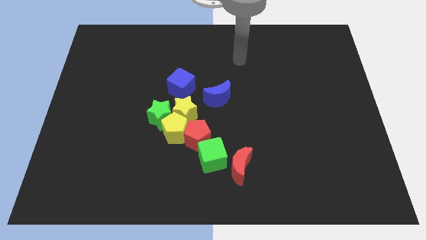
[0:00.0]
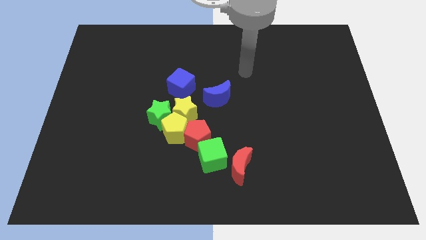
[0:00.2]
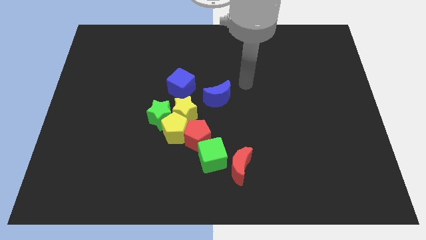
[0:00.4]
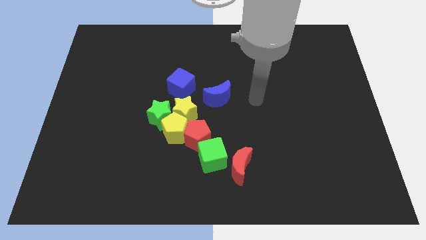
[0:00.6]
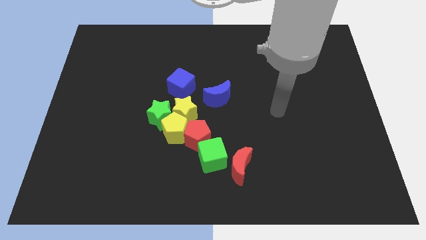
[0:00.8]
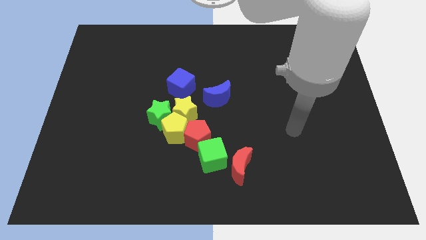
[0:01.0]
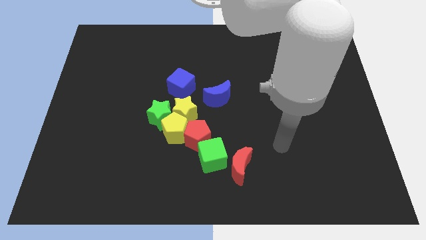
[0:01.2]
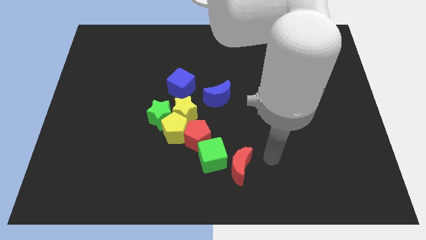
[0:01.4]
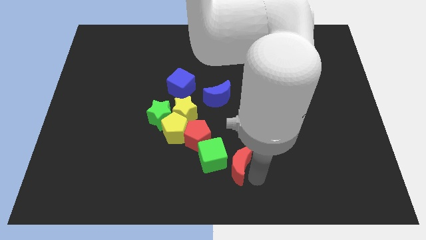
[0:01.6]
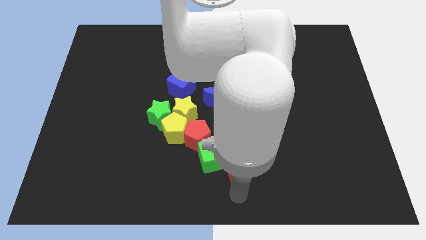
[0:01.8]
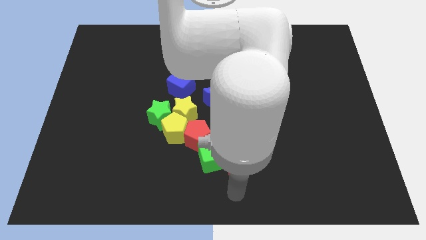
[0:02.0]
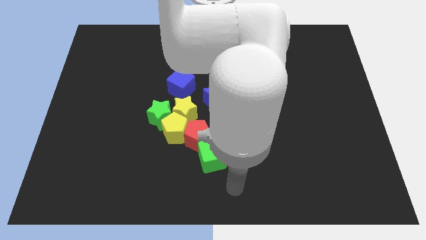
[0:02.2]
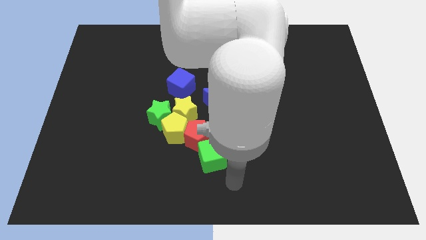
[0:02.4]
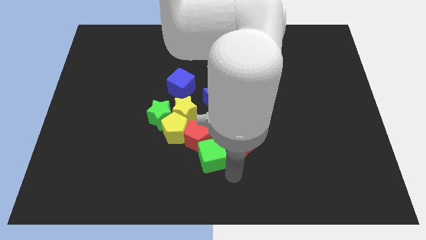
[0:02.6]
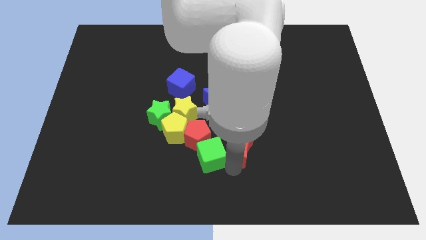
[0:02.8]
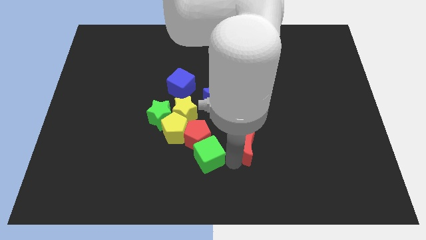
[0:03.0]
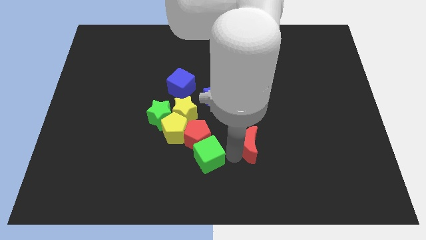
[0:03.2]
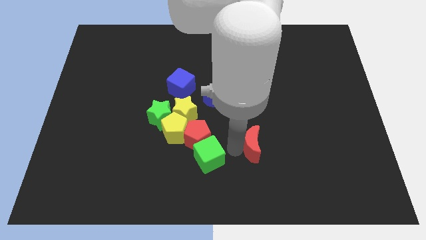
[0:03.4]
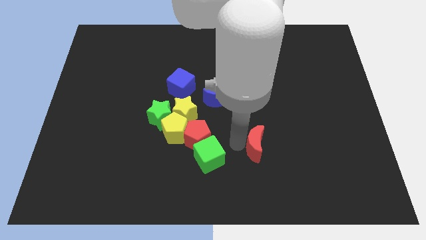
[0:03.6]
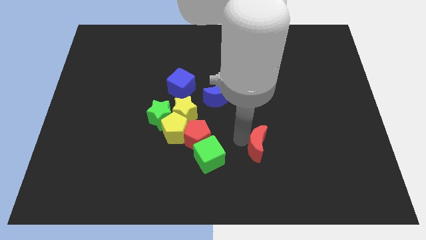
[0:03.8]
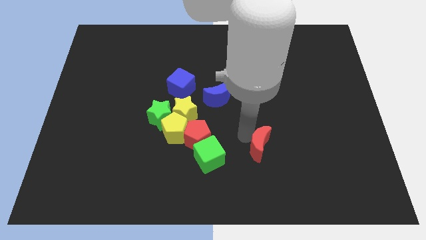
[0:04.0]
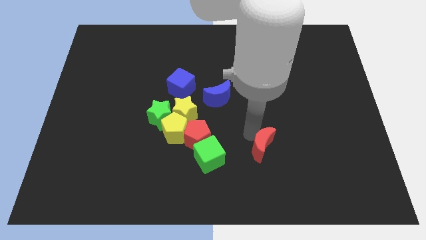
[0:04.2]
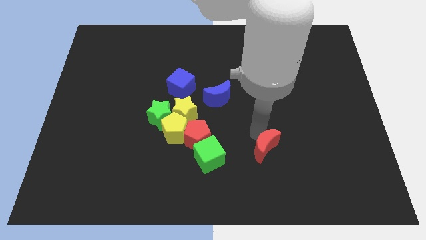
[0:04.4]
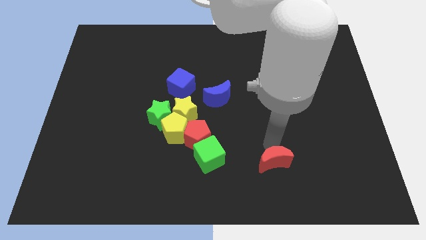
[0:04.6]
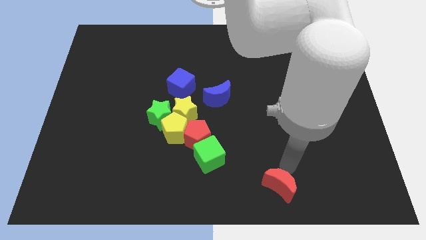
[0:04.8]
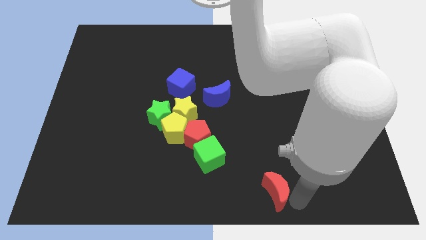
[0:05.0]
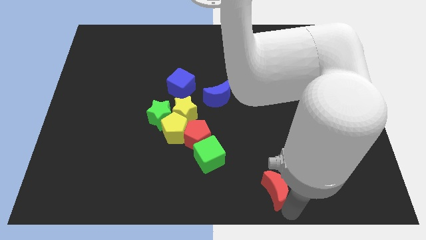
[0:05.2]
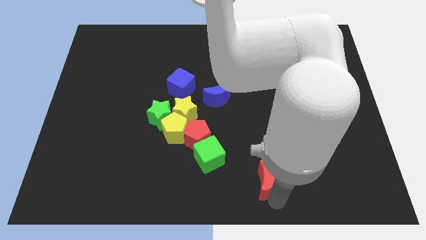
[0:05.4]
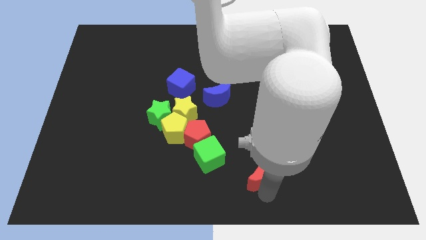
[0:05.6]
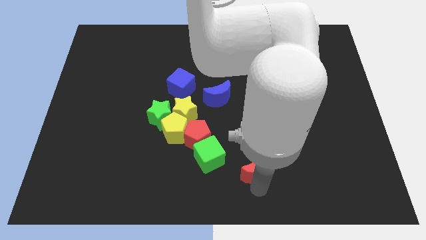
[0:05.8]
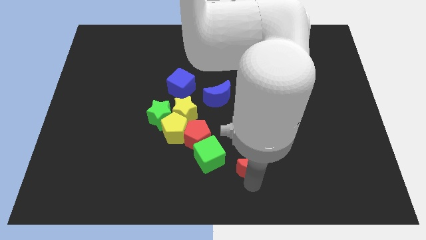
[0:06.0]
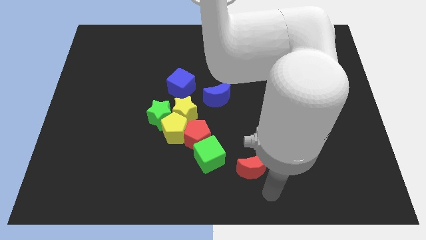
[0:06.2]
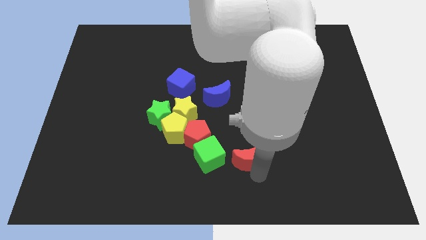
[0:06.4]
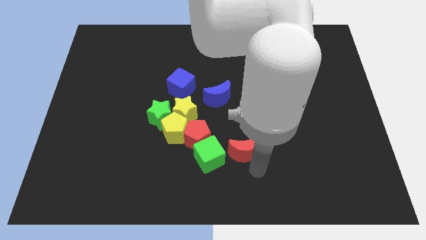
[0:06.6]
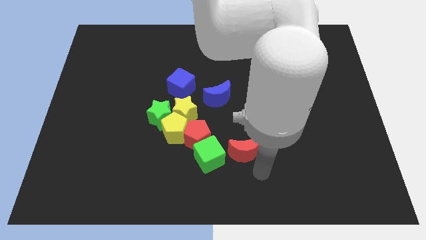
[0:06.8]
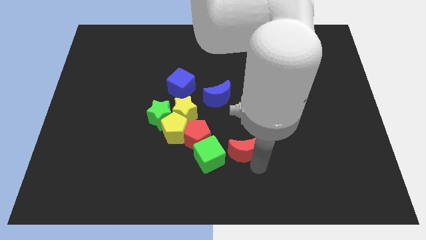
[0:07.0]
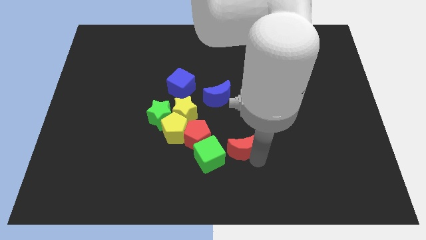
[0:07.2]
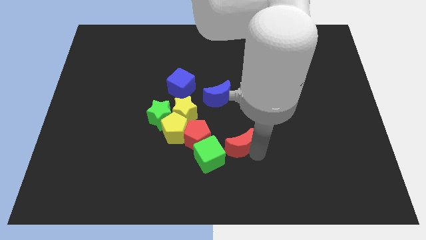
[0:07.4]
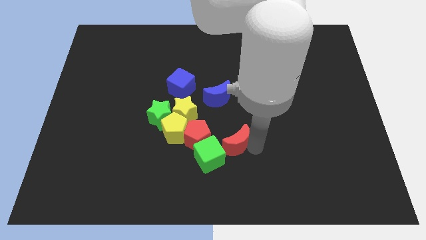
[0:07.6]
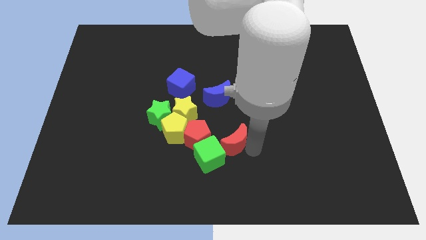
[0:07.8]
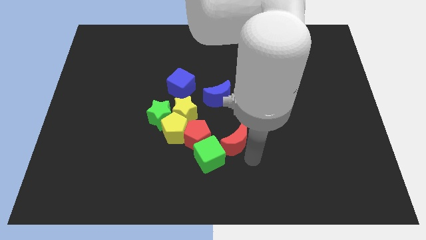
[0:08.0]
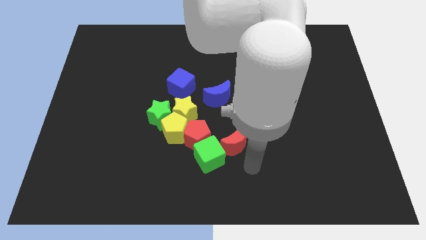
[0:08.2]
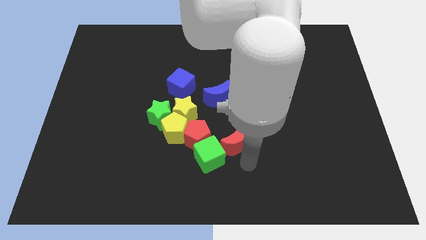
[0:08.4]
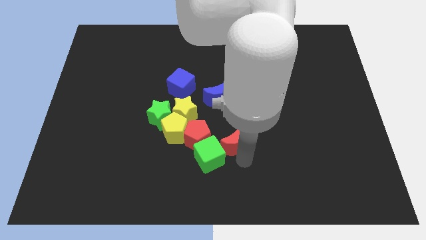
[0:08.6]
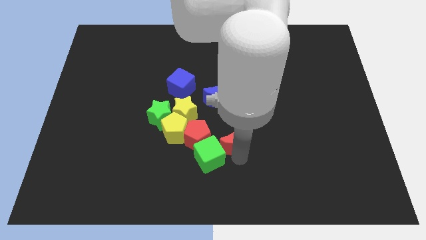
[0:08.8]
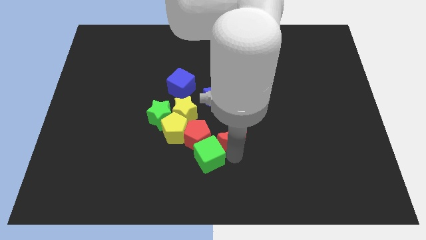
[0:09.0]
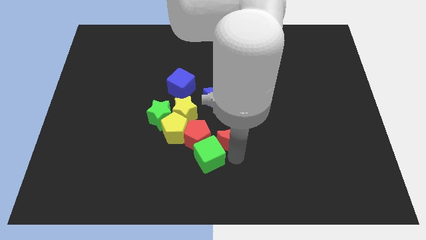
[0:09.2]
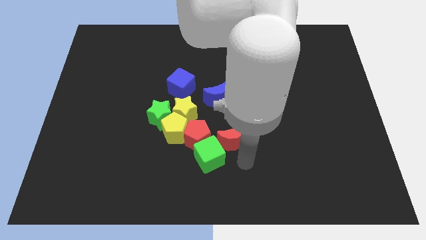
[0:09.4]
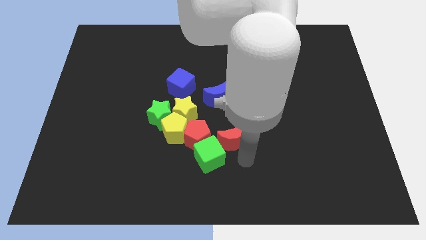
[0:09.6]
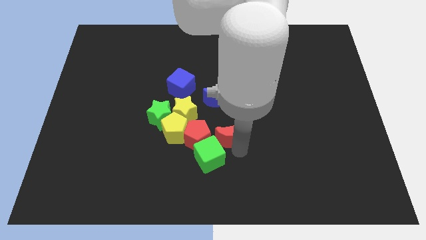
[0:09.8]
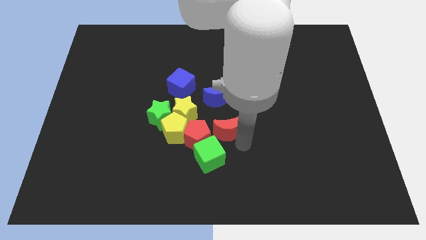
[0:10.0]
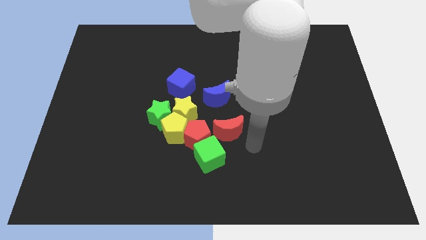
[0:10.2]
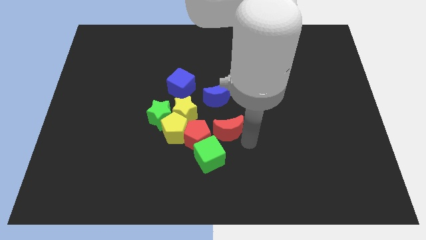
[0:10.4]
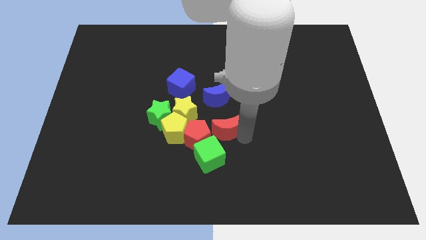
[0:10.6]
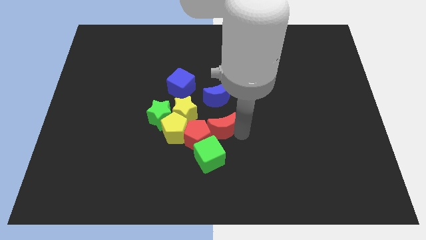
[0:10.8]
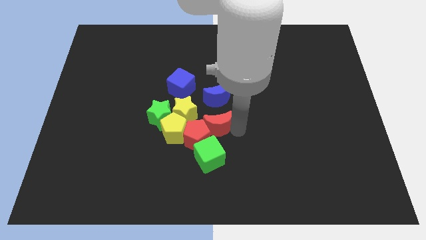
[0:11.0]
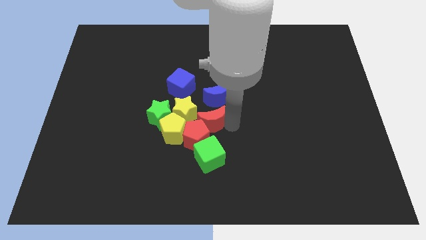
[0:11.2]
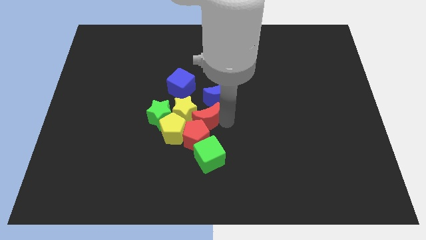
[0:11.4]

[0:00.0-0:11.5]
push the red moon next to the yellow star

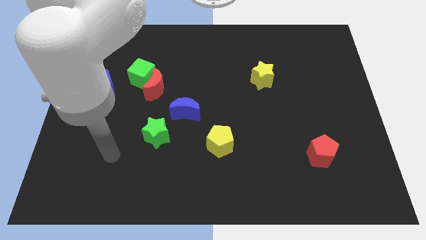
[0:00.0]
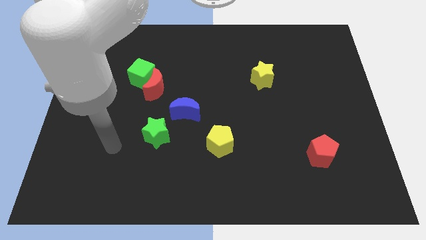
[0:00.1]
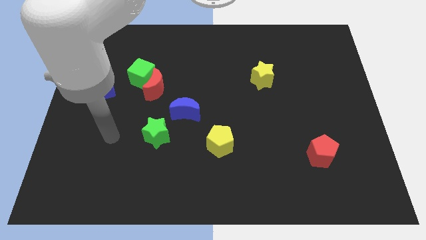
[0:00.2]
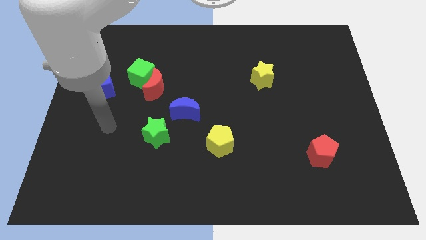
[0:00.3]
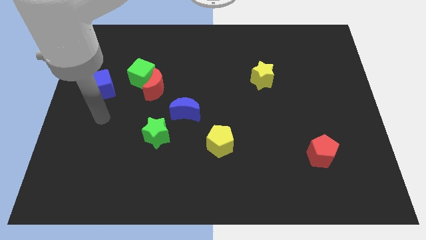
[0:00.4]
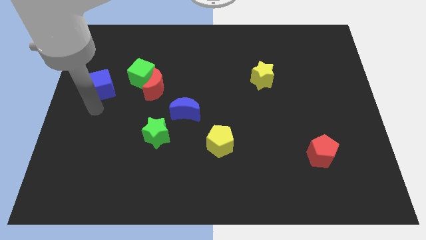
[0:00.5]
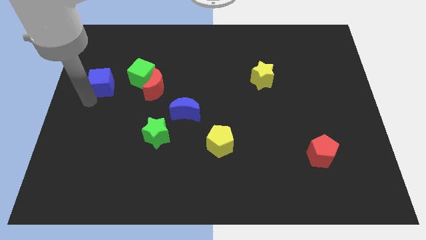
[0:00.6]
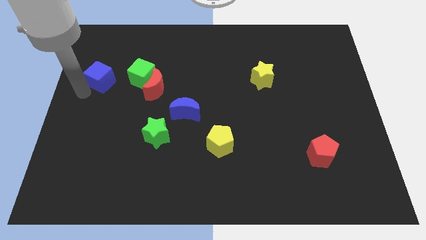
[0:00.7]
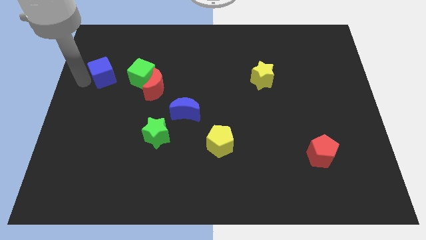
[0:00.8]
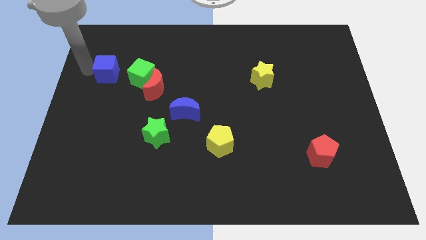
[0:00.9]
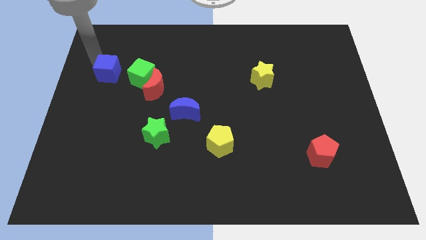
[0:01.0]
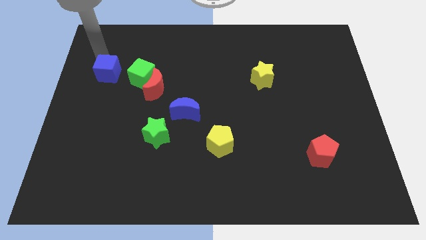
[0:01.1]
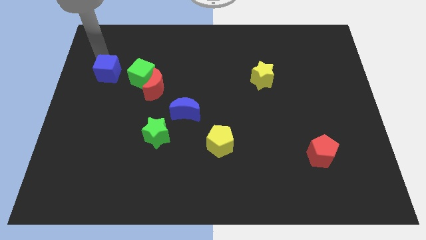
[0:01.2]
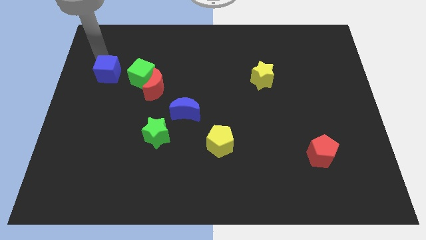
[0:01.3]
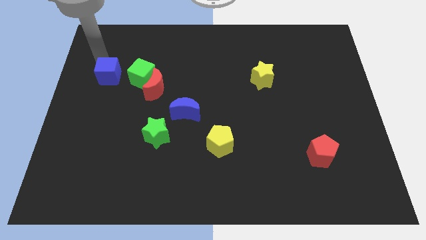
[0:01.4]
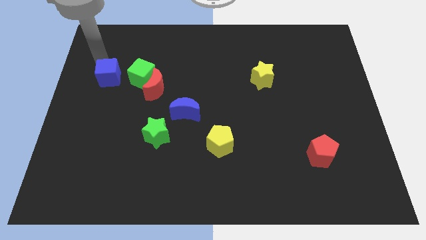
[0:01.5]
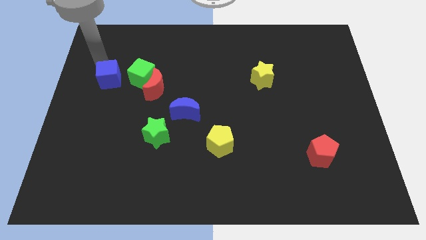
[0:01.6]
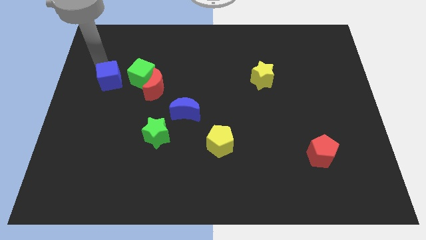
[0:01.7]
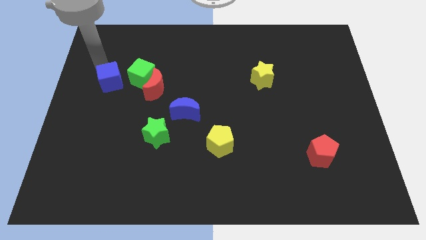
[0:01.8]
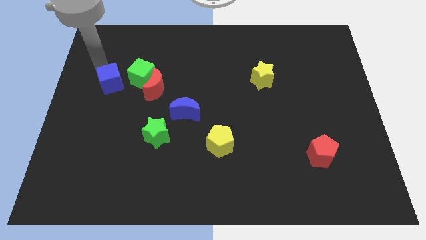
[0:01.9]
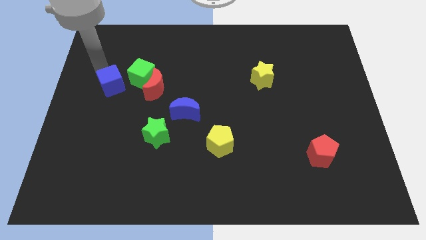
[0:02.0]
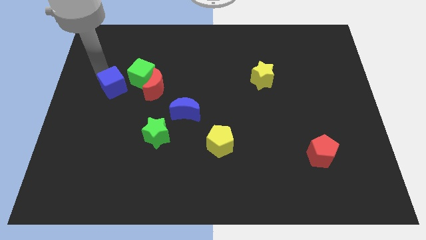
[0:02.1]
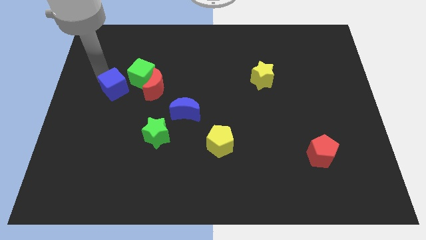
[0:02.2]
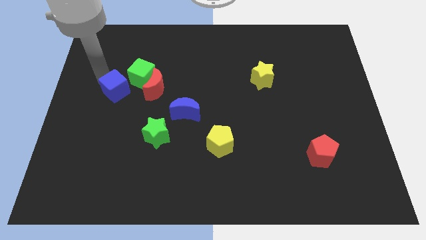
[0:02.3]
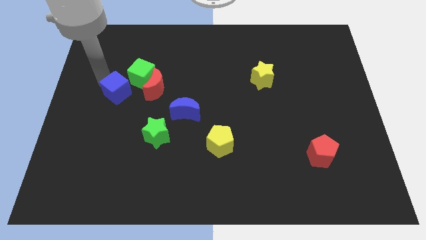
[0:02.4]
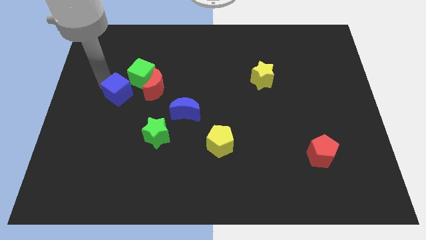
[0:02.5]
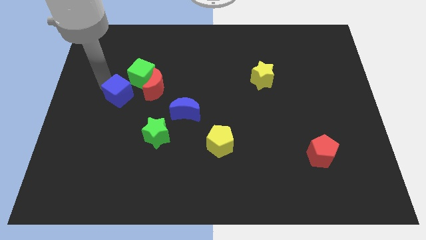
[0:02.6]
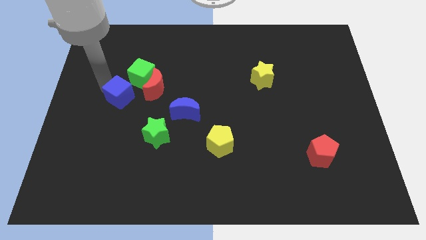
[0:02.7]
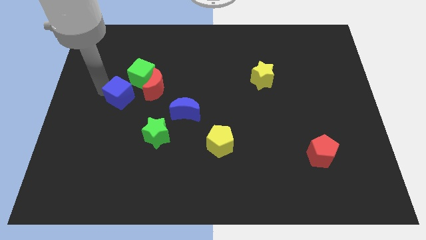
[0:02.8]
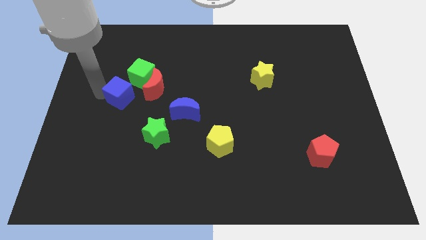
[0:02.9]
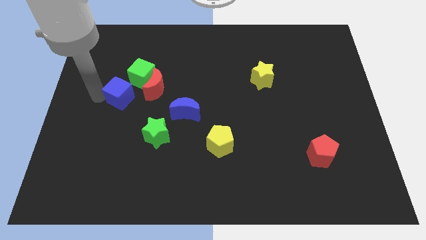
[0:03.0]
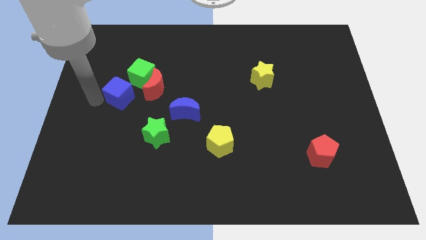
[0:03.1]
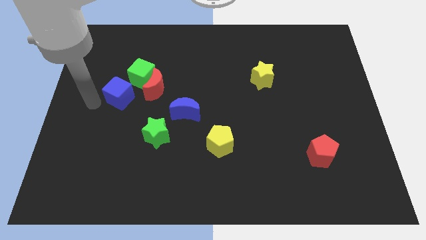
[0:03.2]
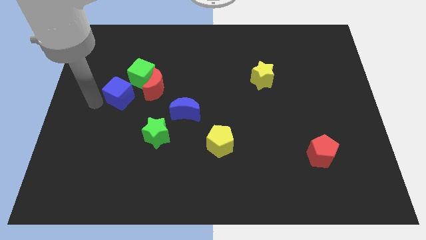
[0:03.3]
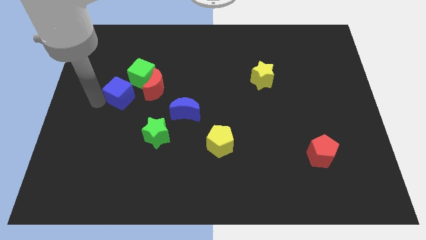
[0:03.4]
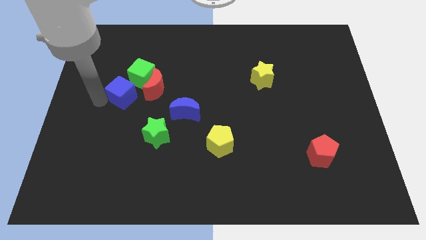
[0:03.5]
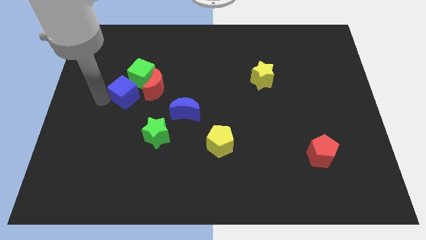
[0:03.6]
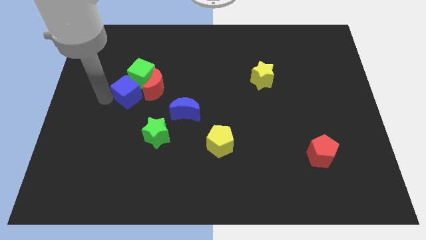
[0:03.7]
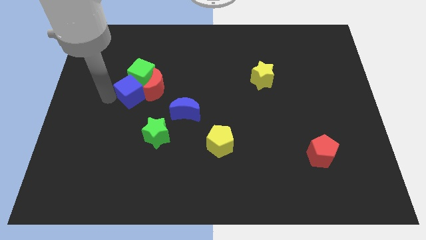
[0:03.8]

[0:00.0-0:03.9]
slide the blue cube to the red moon
